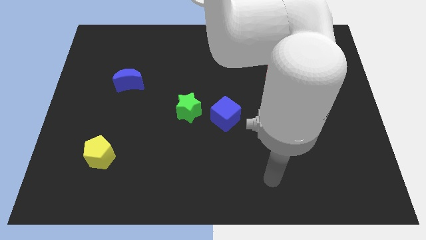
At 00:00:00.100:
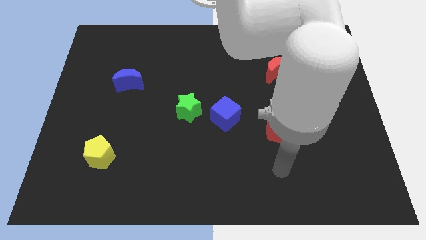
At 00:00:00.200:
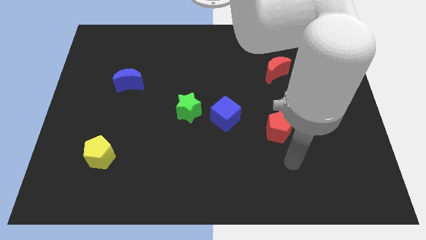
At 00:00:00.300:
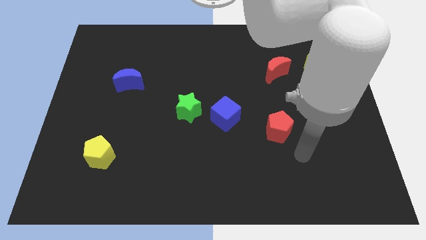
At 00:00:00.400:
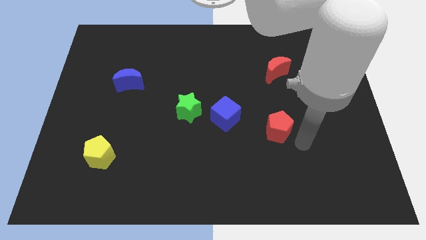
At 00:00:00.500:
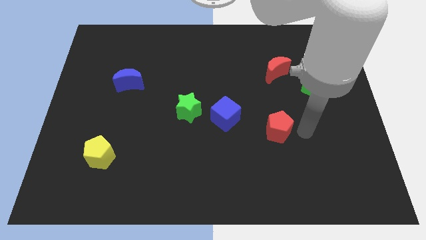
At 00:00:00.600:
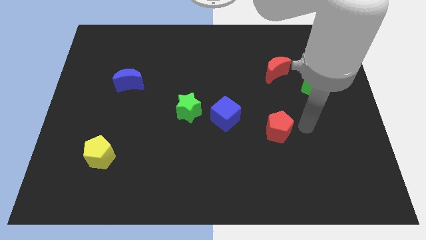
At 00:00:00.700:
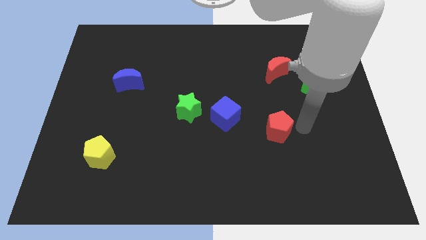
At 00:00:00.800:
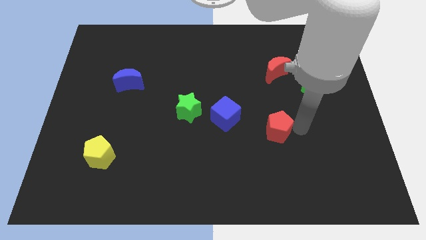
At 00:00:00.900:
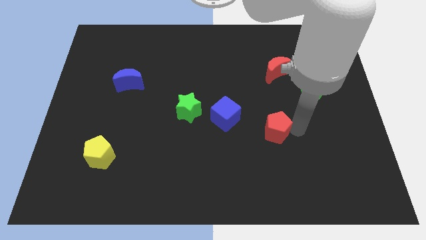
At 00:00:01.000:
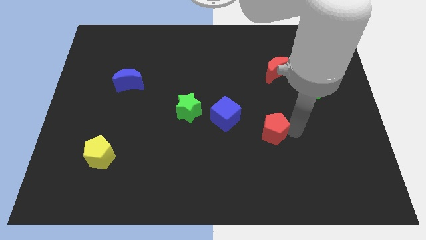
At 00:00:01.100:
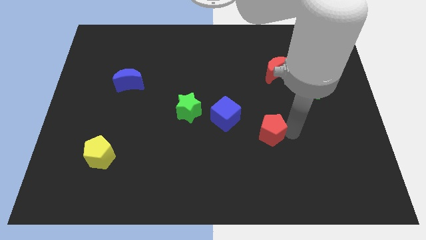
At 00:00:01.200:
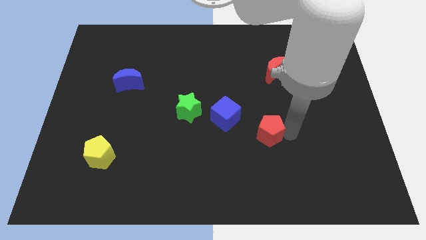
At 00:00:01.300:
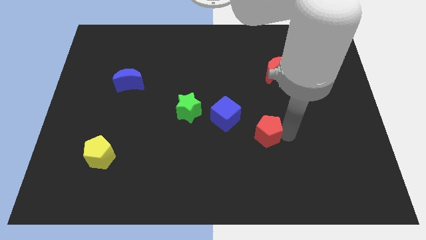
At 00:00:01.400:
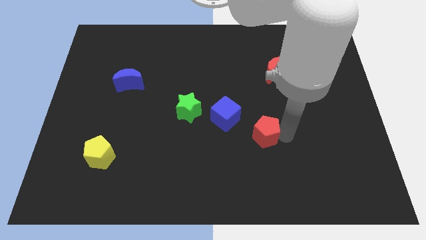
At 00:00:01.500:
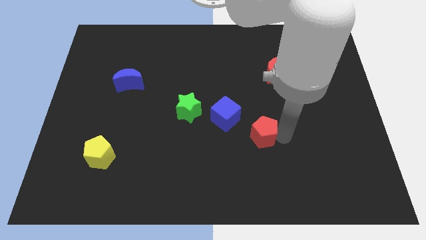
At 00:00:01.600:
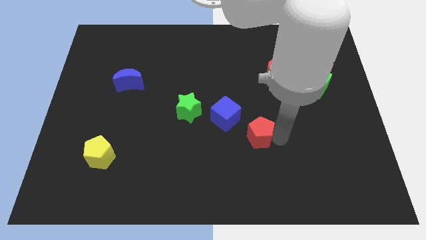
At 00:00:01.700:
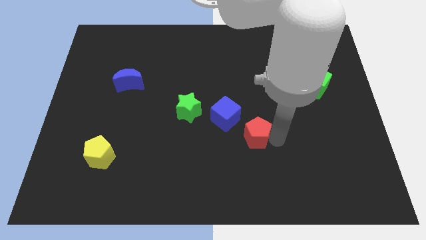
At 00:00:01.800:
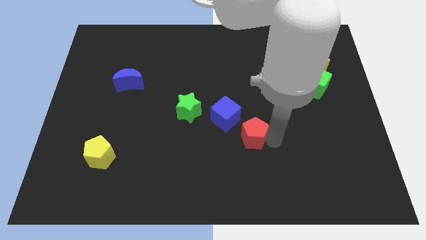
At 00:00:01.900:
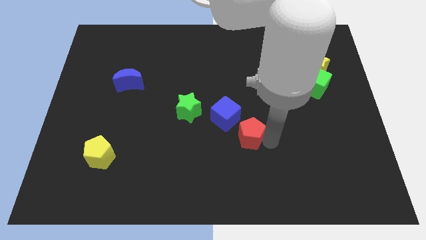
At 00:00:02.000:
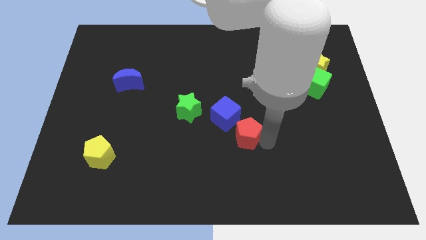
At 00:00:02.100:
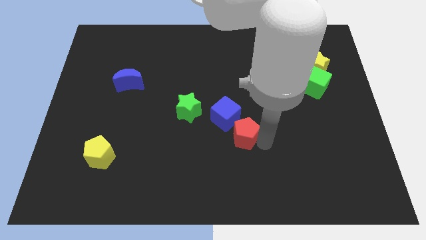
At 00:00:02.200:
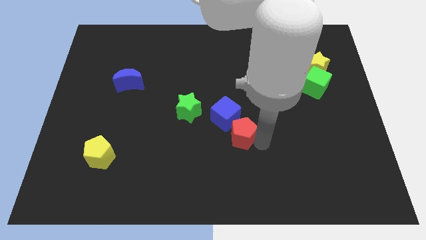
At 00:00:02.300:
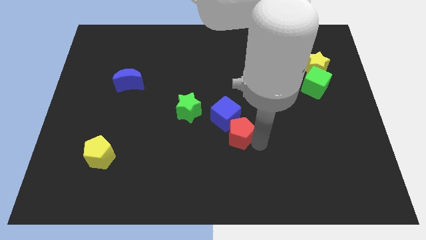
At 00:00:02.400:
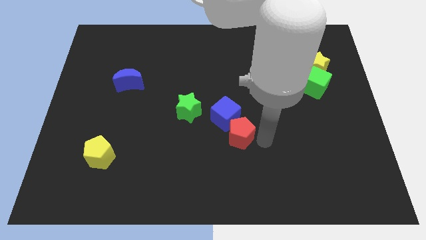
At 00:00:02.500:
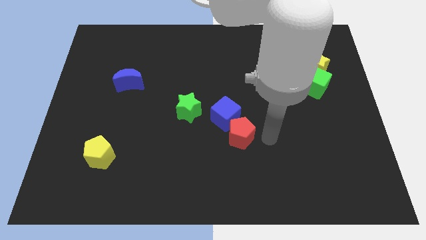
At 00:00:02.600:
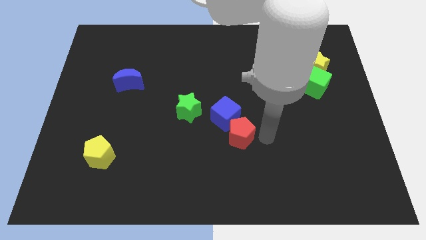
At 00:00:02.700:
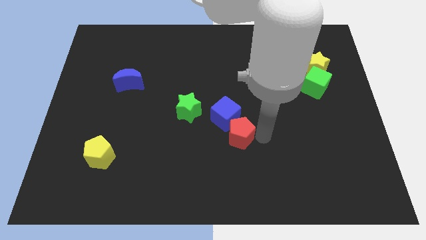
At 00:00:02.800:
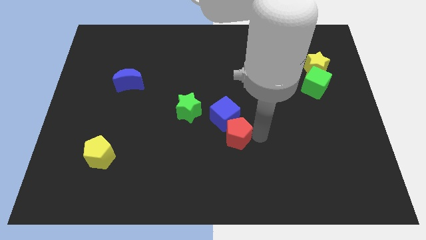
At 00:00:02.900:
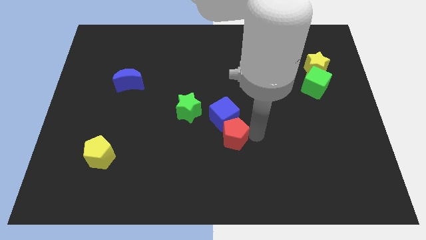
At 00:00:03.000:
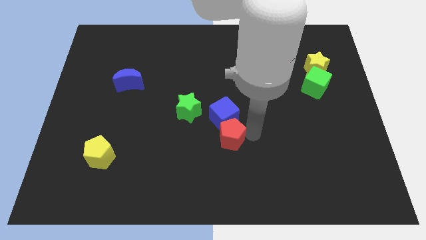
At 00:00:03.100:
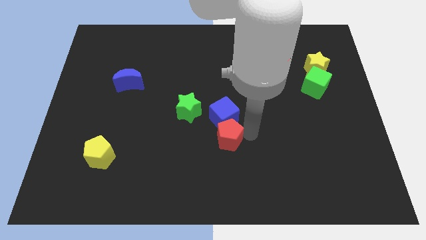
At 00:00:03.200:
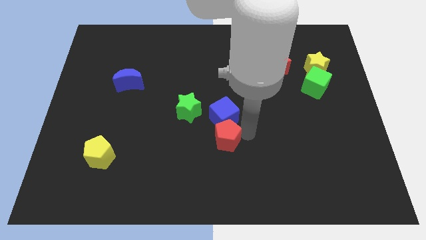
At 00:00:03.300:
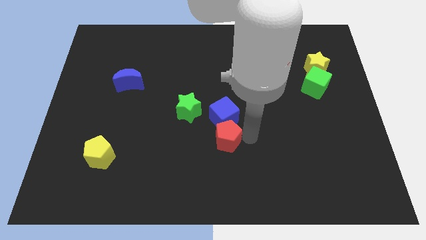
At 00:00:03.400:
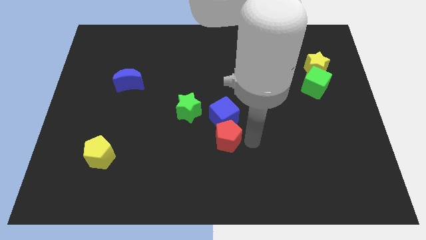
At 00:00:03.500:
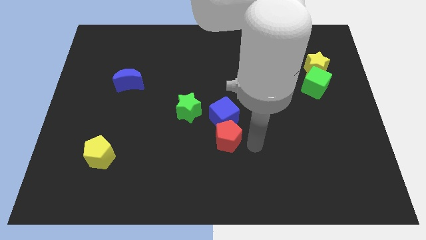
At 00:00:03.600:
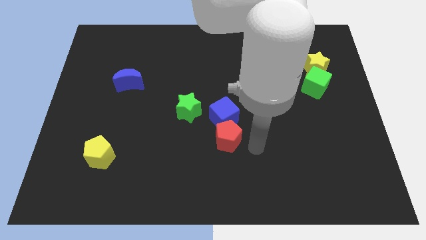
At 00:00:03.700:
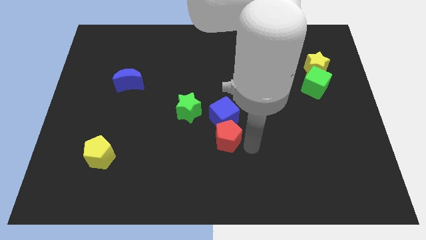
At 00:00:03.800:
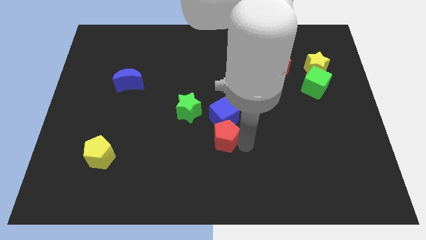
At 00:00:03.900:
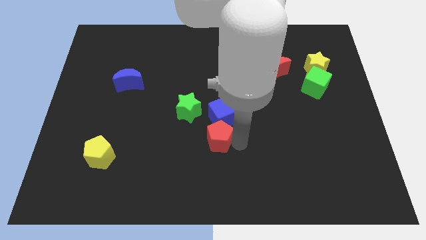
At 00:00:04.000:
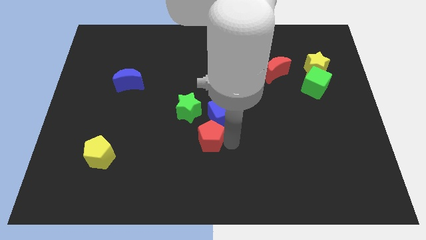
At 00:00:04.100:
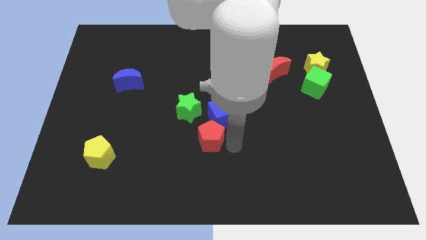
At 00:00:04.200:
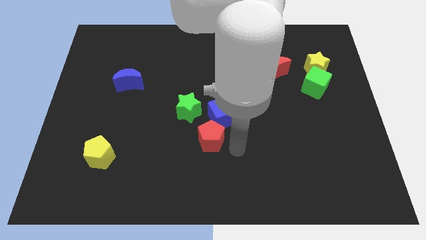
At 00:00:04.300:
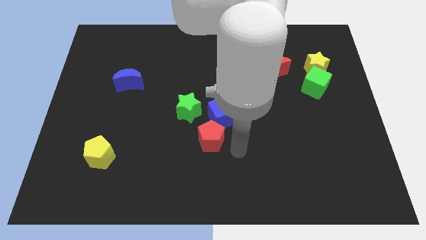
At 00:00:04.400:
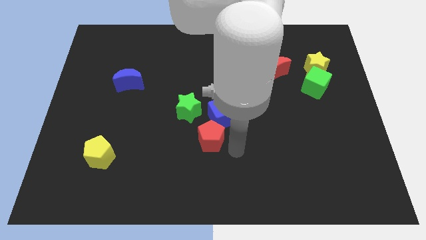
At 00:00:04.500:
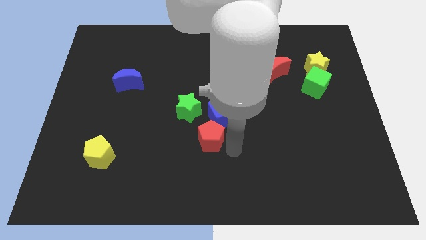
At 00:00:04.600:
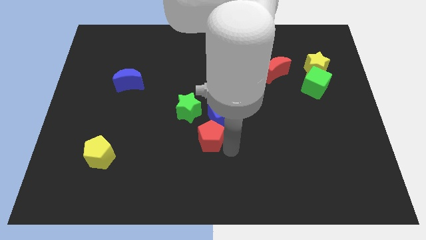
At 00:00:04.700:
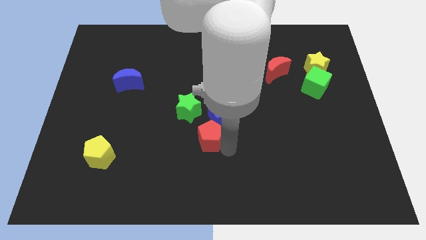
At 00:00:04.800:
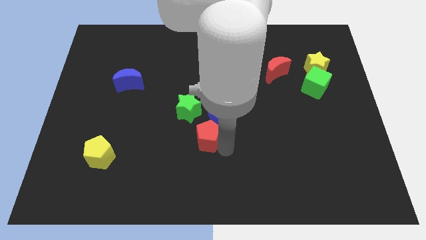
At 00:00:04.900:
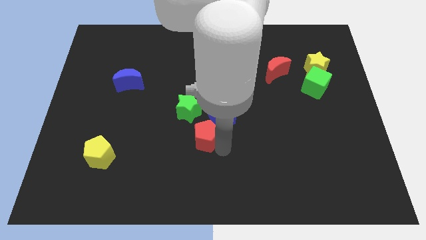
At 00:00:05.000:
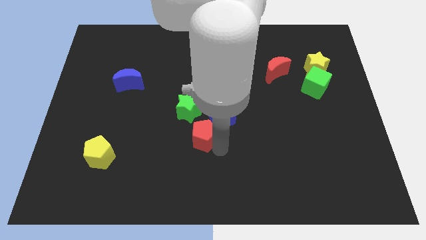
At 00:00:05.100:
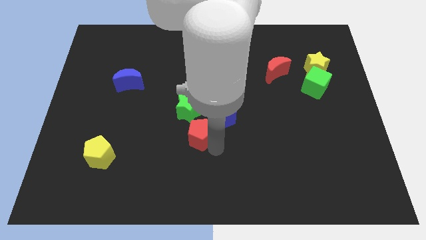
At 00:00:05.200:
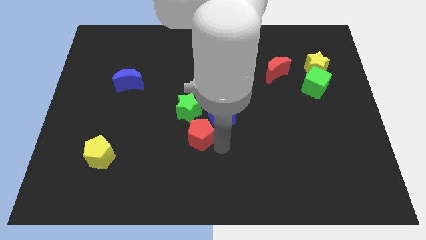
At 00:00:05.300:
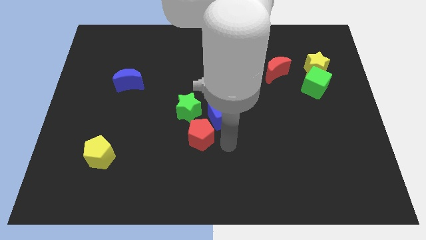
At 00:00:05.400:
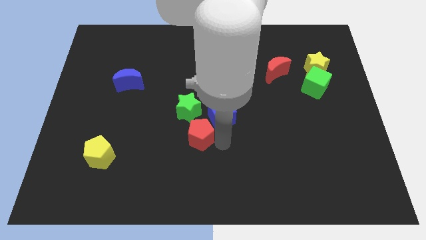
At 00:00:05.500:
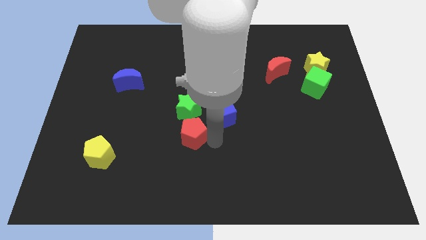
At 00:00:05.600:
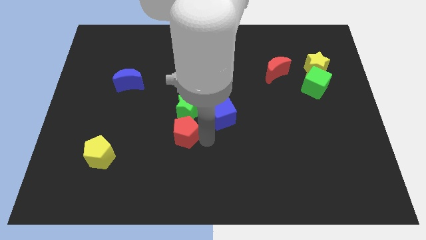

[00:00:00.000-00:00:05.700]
move the red pentagon left

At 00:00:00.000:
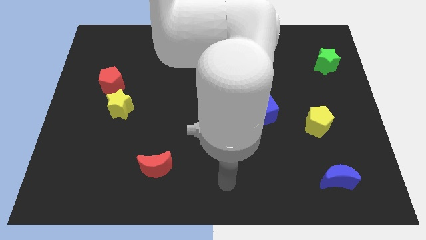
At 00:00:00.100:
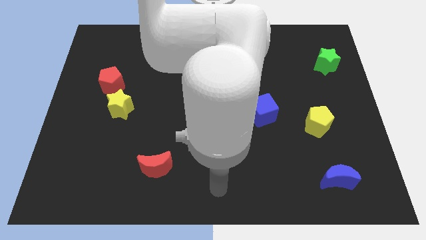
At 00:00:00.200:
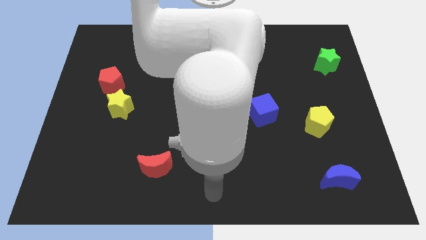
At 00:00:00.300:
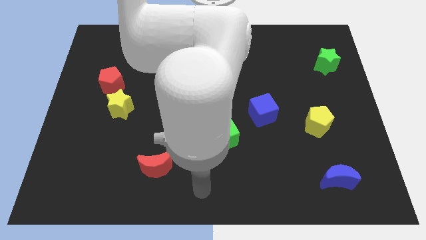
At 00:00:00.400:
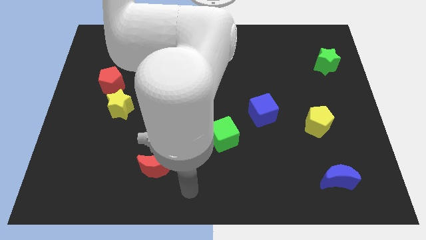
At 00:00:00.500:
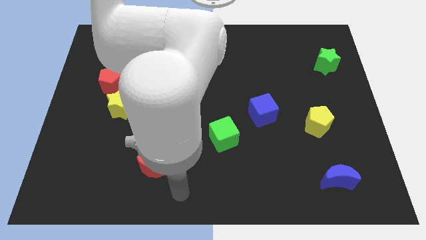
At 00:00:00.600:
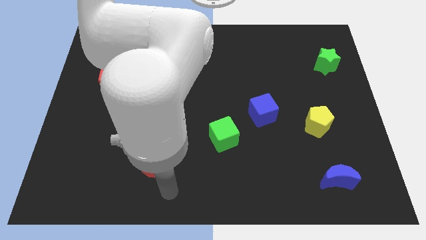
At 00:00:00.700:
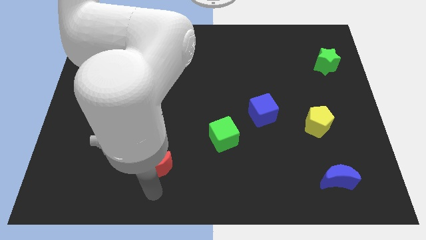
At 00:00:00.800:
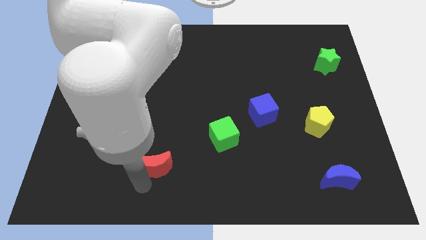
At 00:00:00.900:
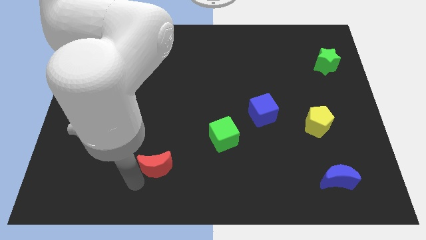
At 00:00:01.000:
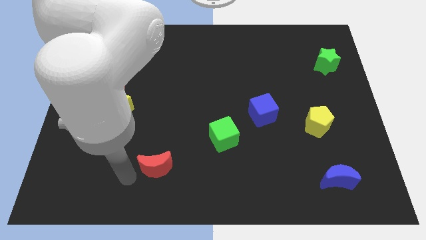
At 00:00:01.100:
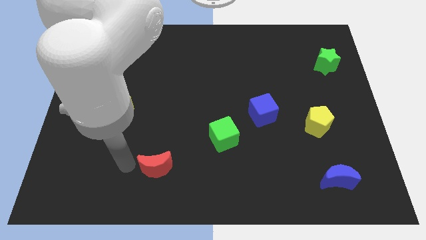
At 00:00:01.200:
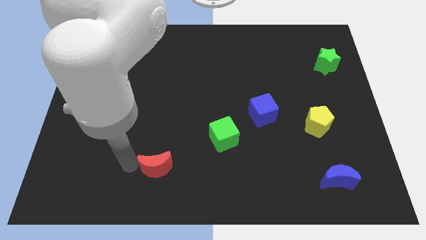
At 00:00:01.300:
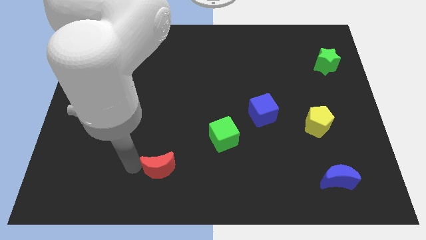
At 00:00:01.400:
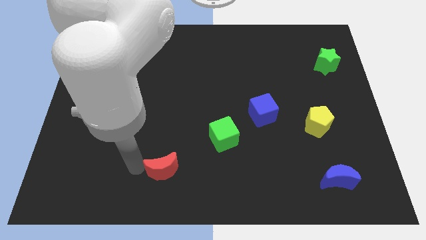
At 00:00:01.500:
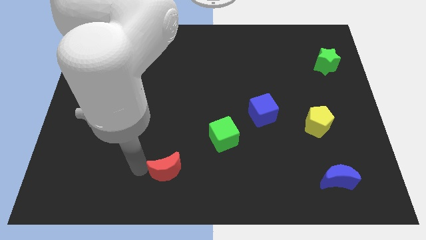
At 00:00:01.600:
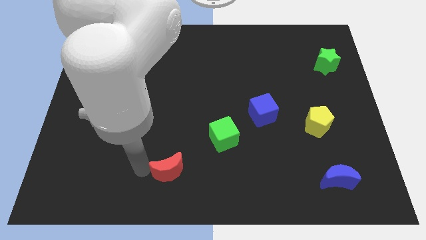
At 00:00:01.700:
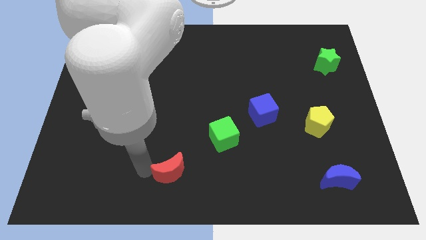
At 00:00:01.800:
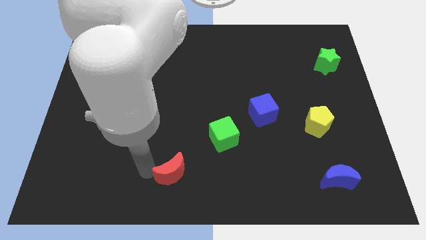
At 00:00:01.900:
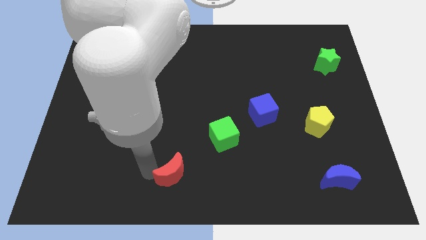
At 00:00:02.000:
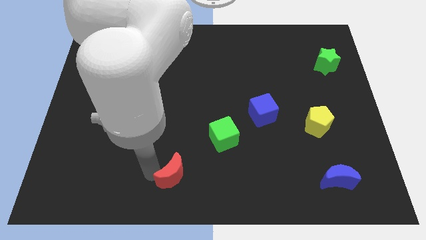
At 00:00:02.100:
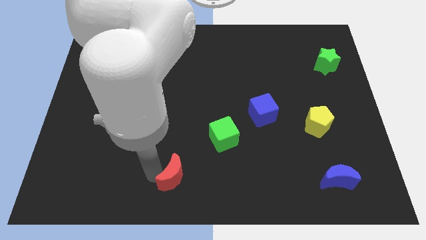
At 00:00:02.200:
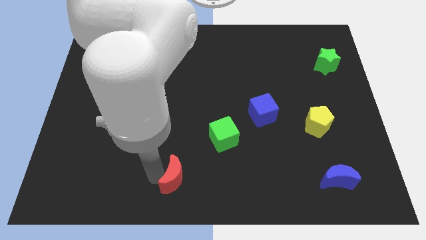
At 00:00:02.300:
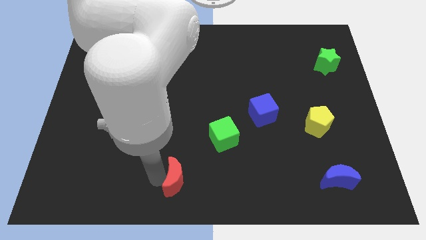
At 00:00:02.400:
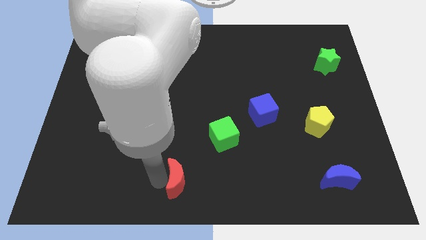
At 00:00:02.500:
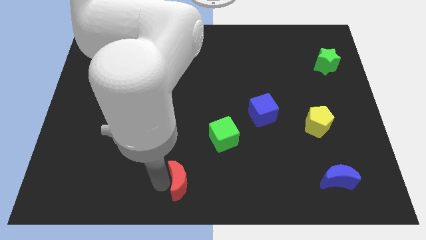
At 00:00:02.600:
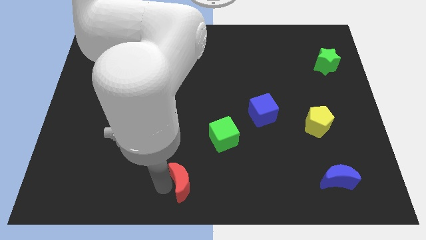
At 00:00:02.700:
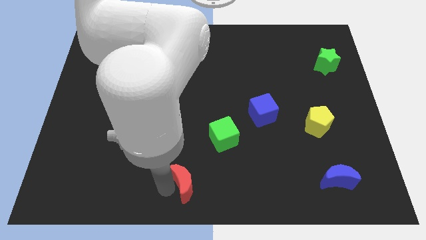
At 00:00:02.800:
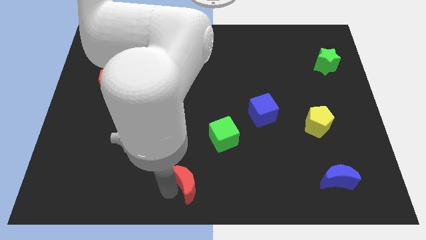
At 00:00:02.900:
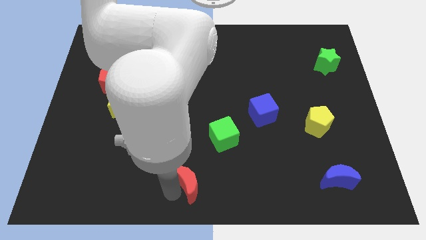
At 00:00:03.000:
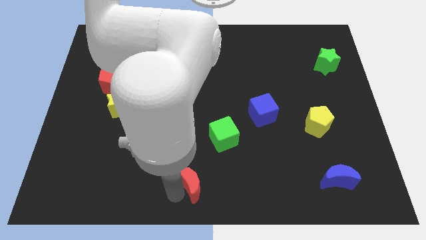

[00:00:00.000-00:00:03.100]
slide the red moon a little bit right
